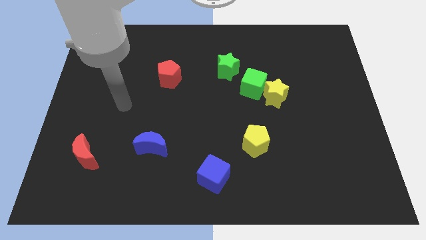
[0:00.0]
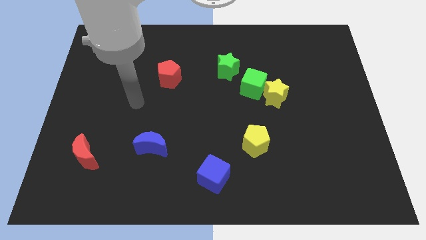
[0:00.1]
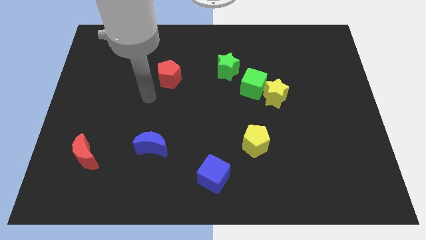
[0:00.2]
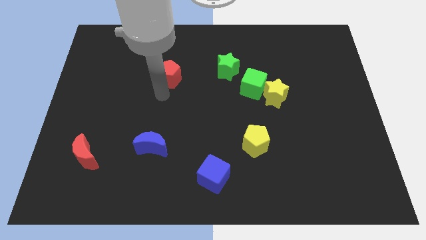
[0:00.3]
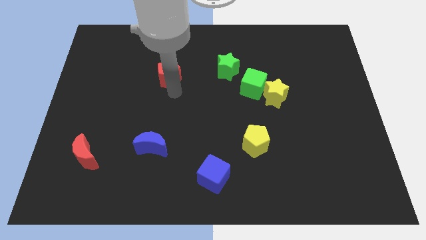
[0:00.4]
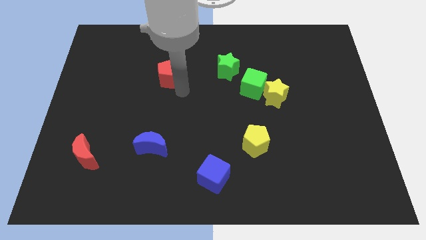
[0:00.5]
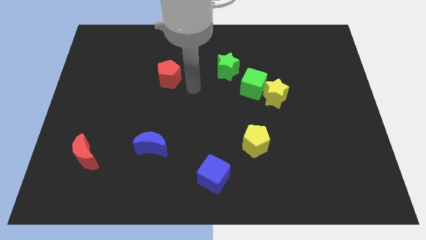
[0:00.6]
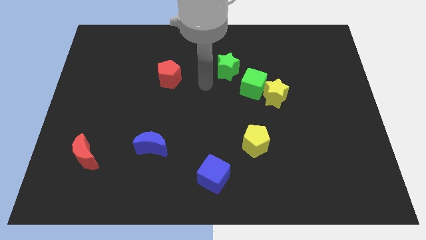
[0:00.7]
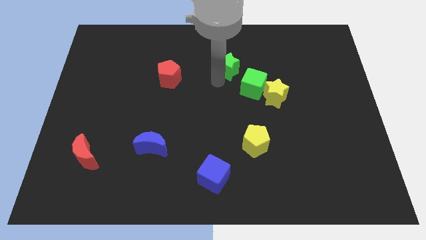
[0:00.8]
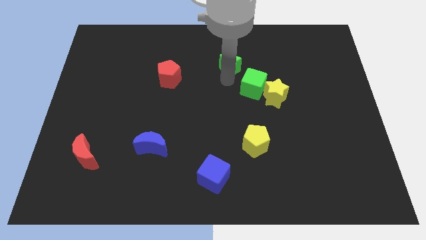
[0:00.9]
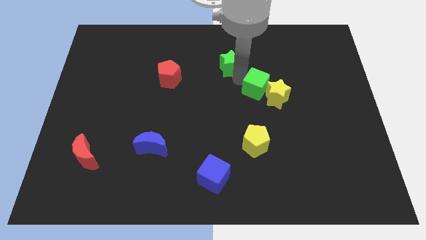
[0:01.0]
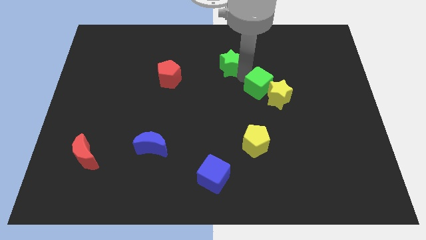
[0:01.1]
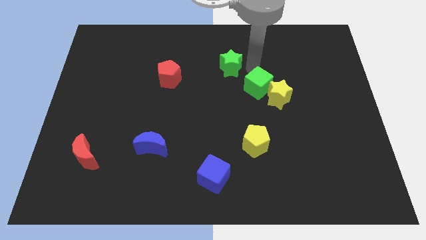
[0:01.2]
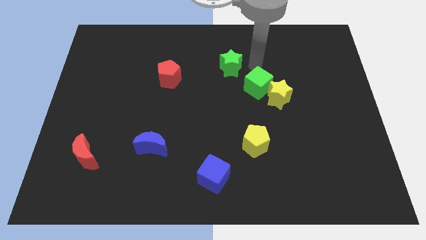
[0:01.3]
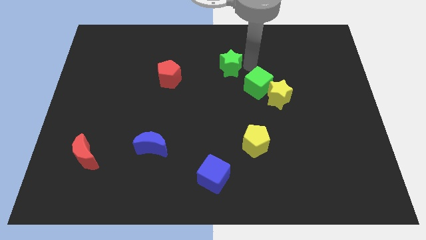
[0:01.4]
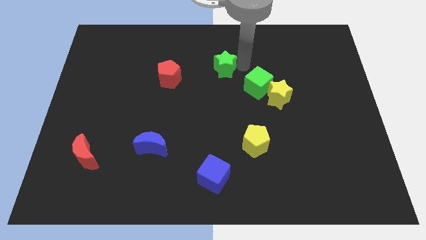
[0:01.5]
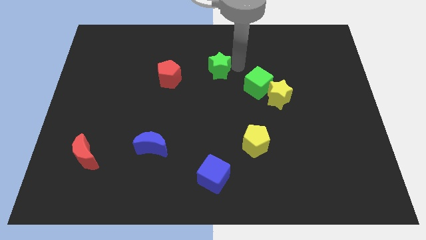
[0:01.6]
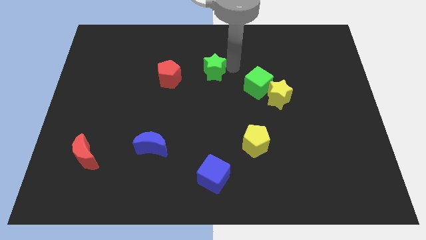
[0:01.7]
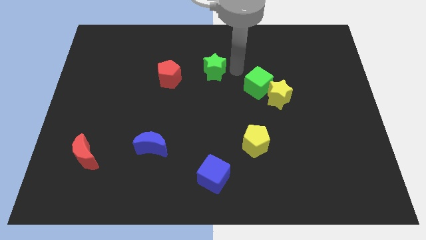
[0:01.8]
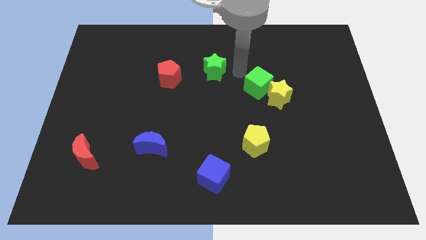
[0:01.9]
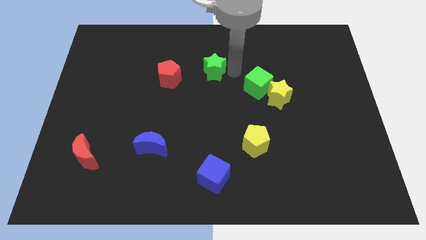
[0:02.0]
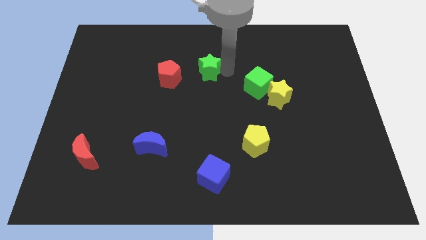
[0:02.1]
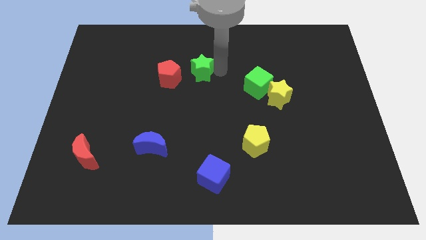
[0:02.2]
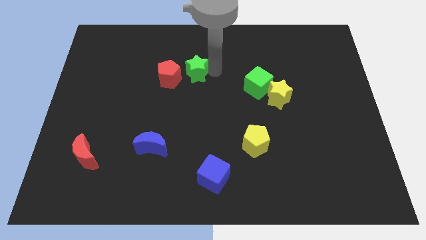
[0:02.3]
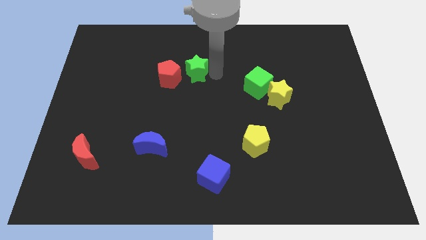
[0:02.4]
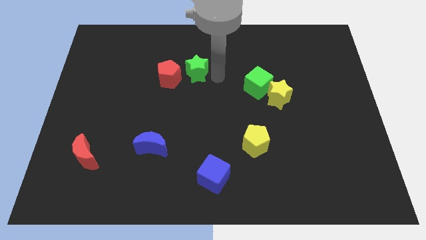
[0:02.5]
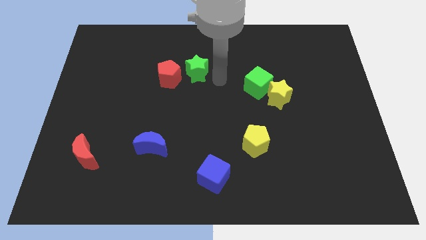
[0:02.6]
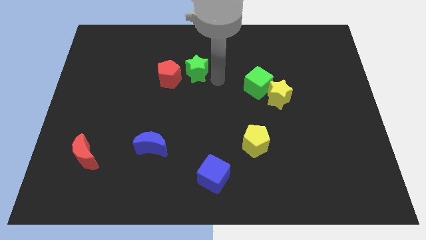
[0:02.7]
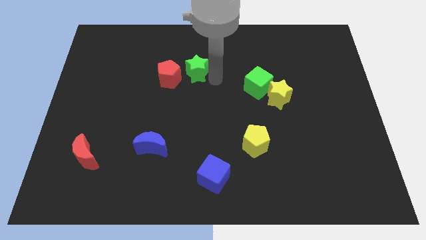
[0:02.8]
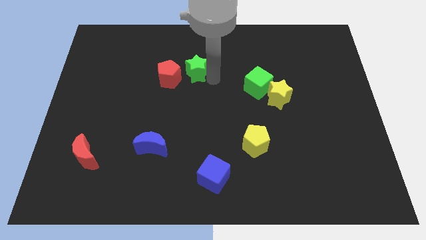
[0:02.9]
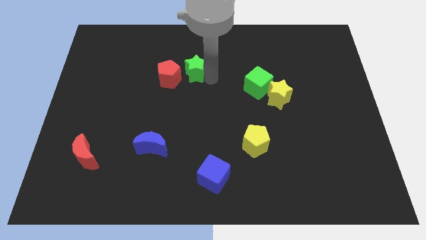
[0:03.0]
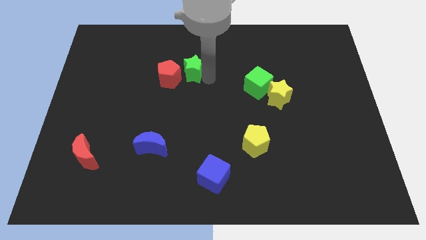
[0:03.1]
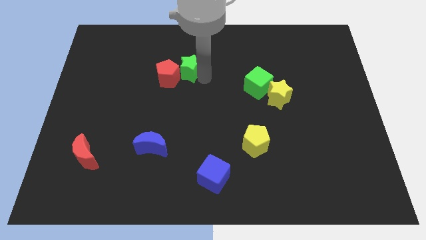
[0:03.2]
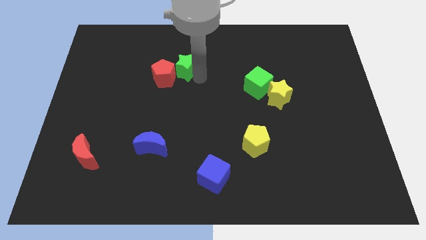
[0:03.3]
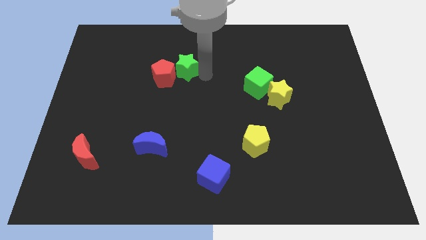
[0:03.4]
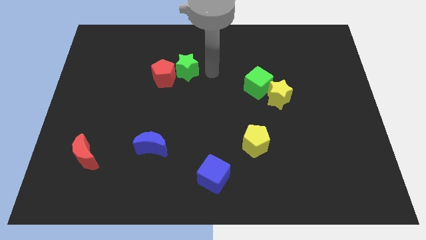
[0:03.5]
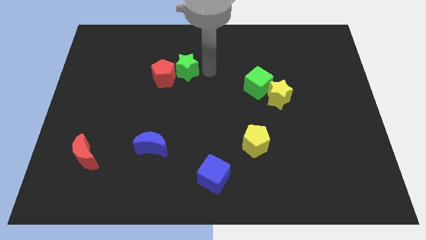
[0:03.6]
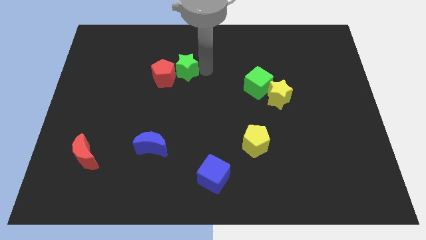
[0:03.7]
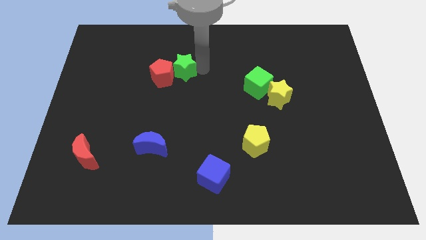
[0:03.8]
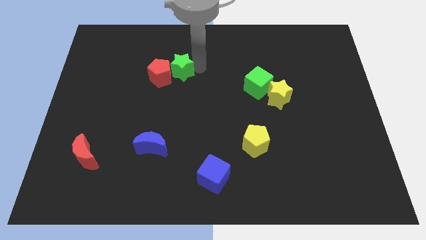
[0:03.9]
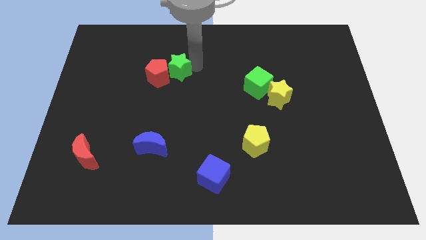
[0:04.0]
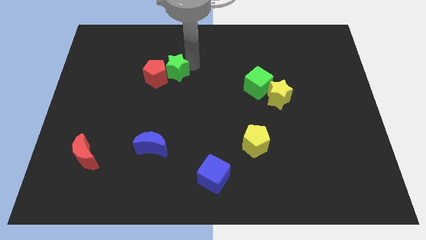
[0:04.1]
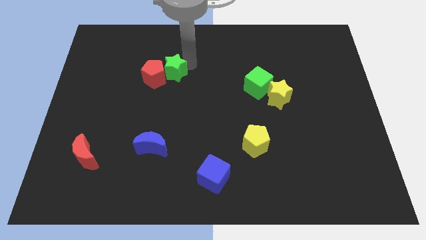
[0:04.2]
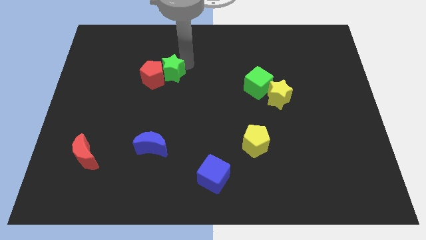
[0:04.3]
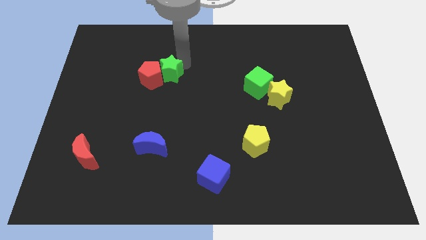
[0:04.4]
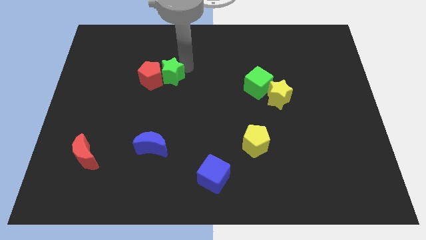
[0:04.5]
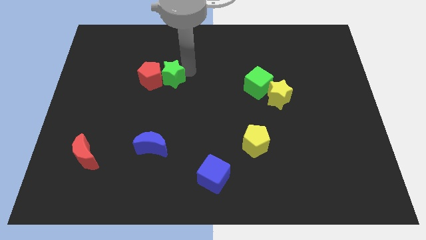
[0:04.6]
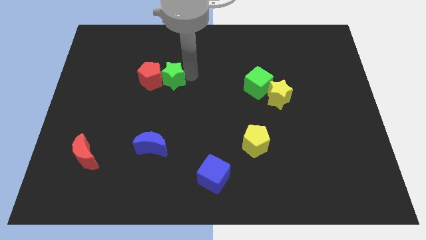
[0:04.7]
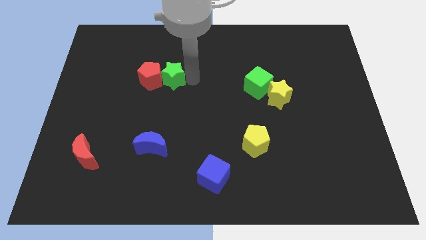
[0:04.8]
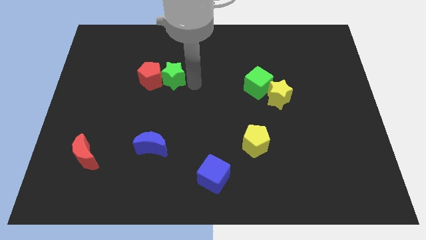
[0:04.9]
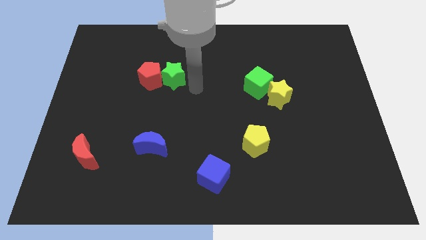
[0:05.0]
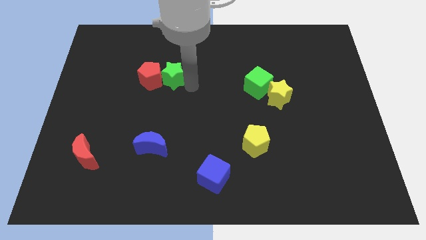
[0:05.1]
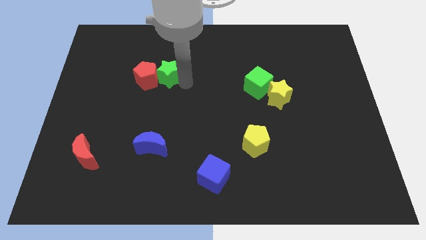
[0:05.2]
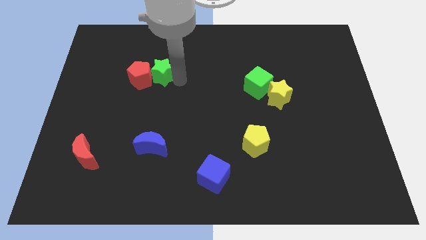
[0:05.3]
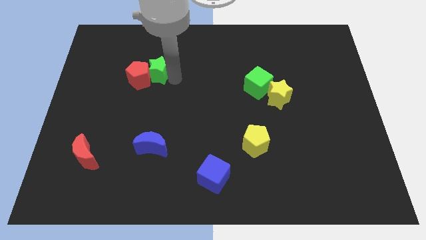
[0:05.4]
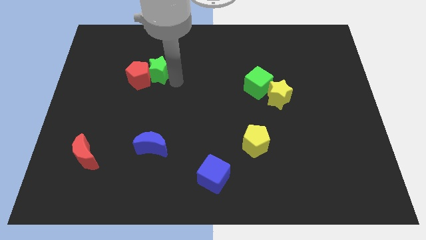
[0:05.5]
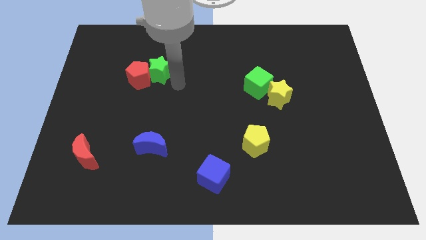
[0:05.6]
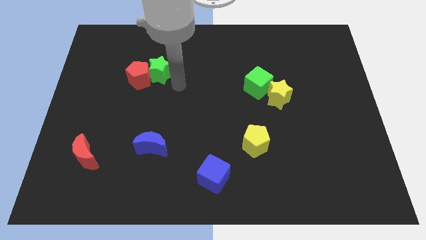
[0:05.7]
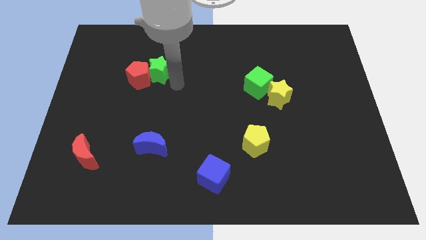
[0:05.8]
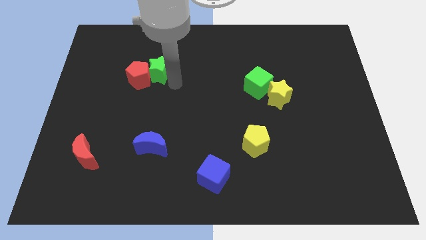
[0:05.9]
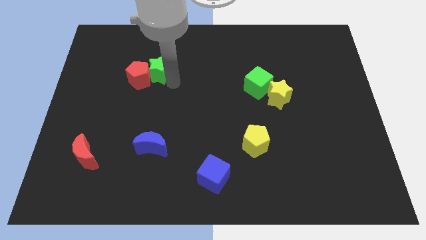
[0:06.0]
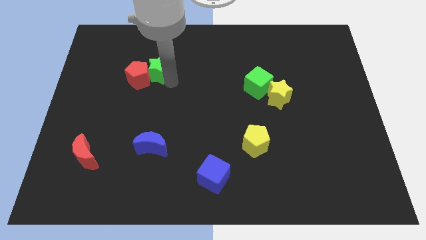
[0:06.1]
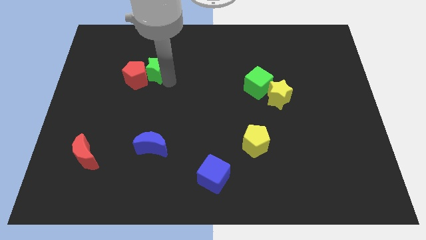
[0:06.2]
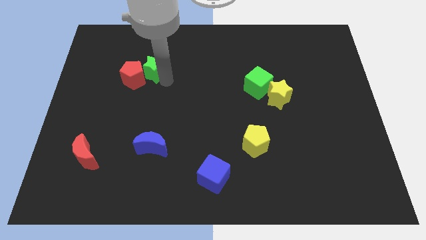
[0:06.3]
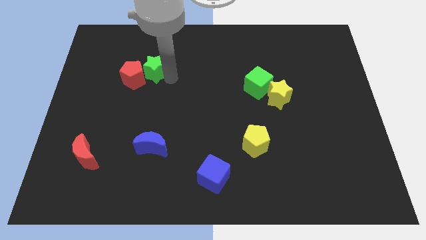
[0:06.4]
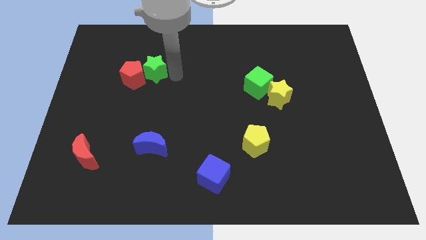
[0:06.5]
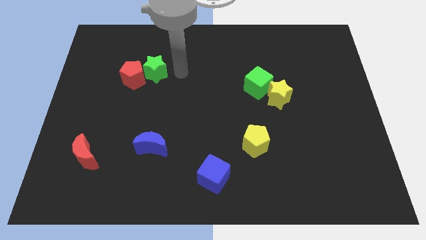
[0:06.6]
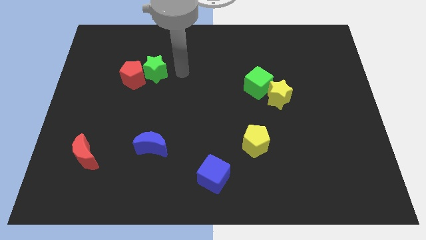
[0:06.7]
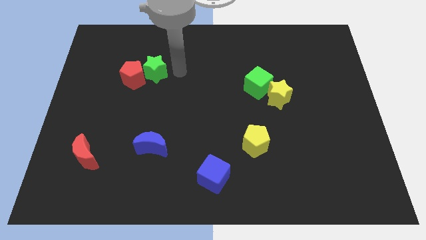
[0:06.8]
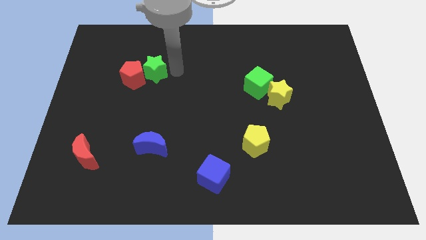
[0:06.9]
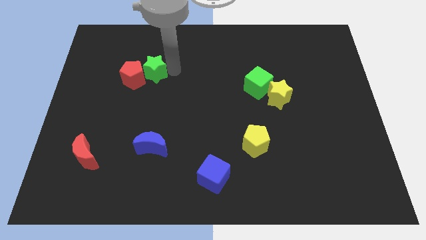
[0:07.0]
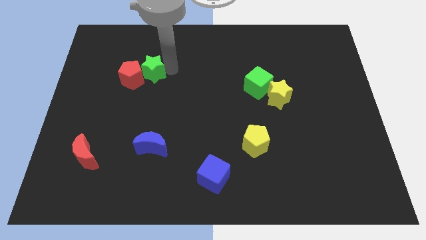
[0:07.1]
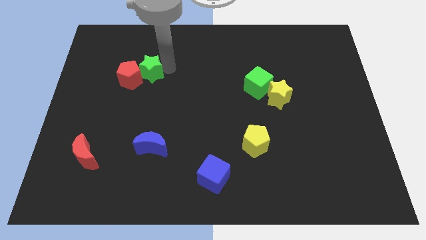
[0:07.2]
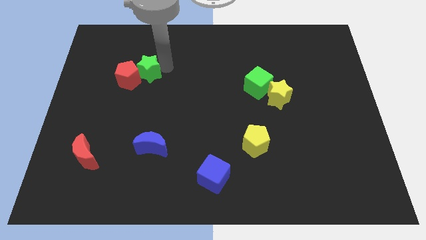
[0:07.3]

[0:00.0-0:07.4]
push the green star left

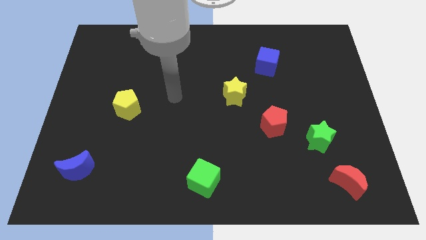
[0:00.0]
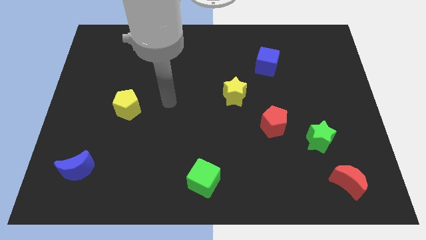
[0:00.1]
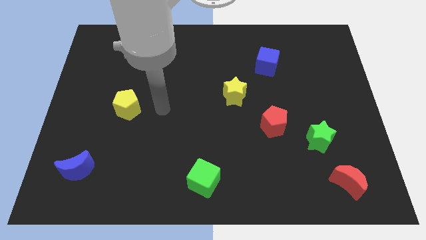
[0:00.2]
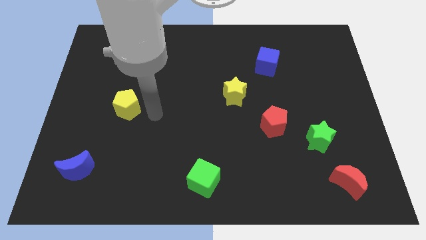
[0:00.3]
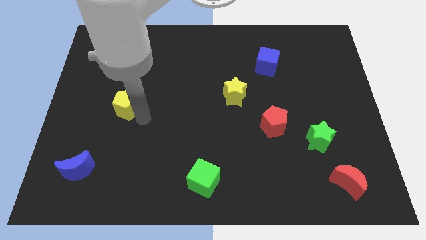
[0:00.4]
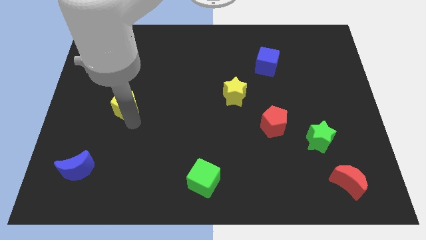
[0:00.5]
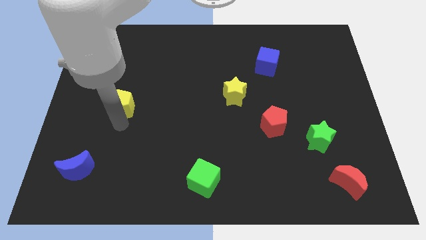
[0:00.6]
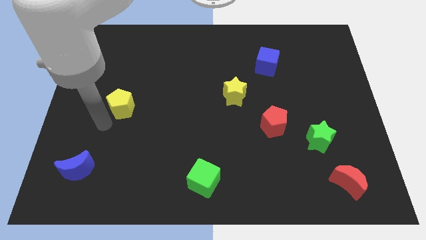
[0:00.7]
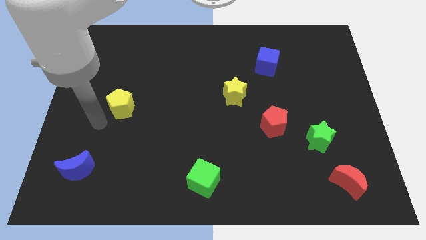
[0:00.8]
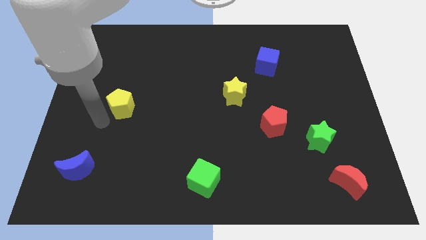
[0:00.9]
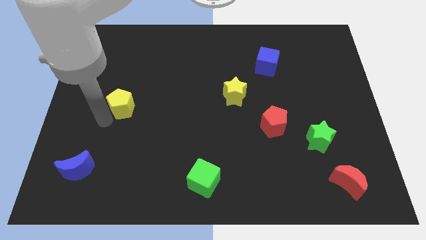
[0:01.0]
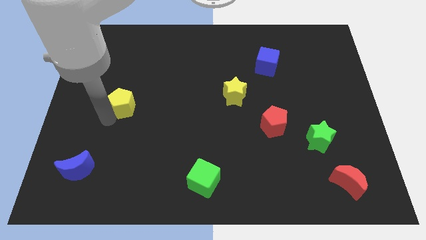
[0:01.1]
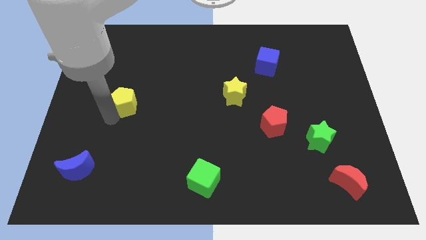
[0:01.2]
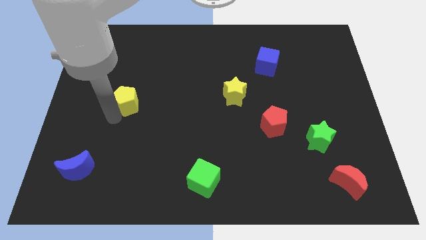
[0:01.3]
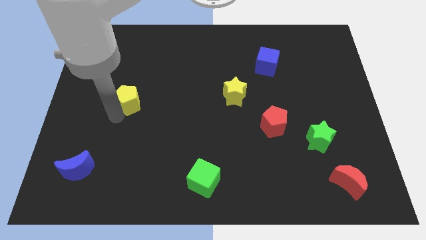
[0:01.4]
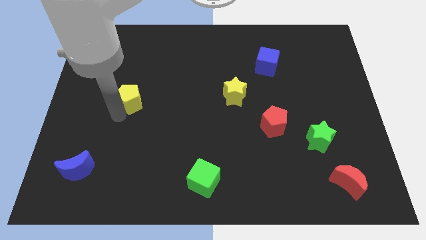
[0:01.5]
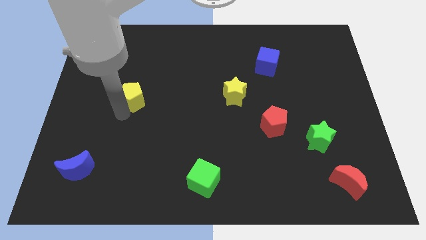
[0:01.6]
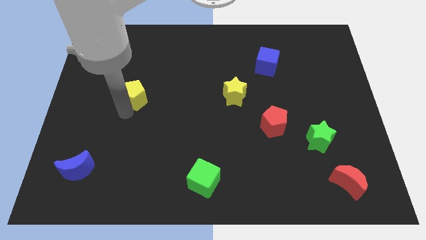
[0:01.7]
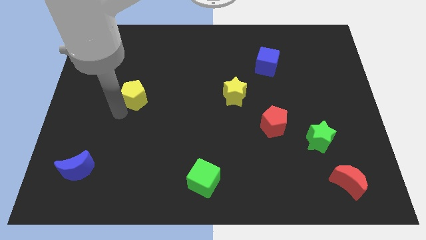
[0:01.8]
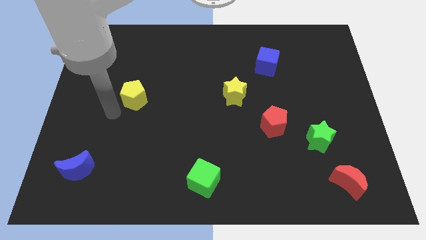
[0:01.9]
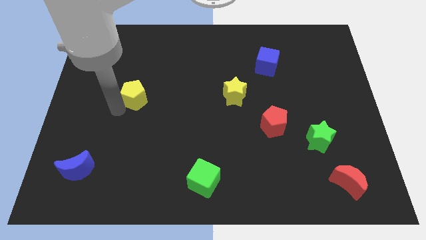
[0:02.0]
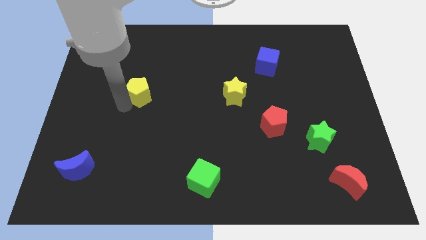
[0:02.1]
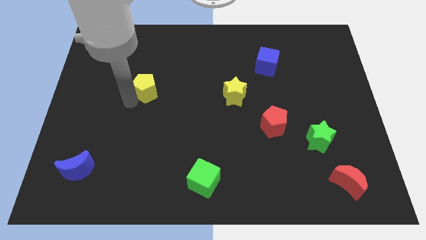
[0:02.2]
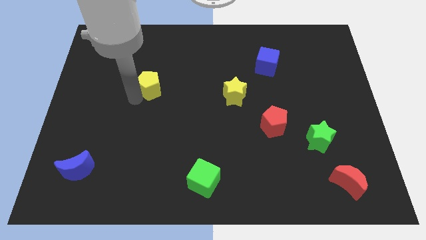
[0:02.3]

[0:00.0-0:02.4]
slightly push the yellow pentagon up and to the right diagonally
